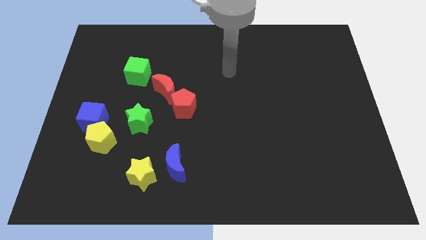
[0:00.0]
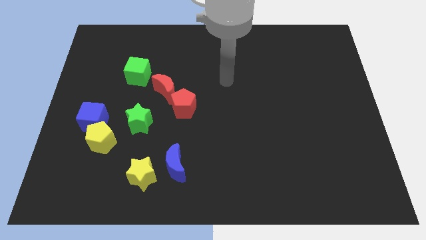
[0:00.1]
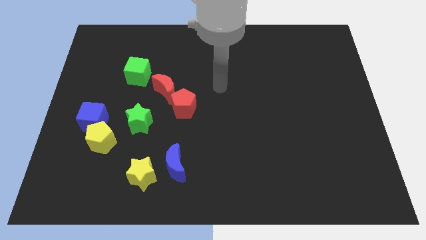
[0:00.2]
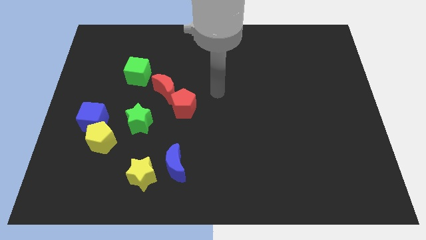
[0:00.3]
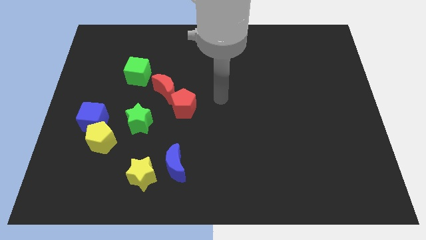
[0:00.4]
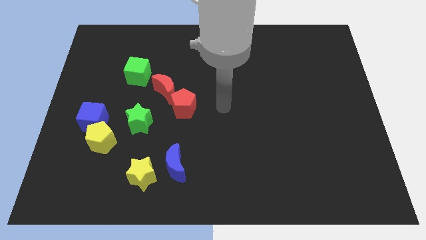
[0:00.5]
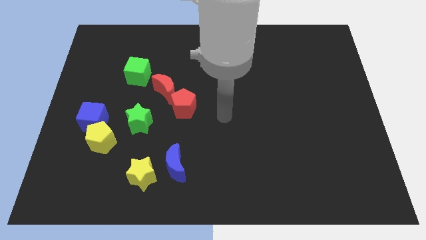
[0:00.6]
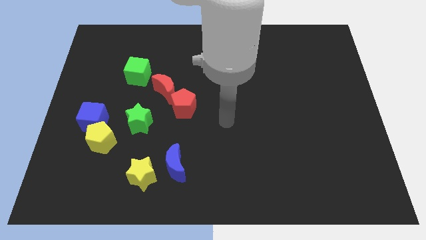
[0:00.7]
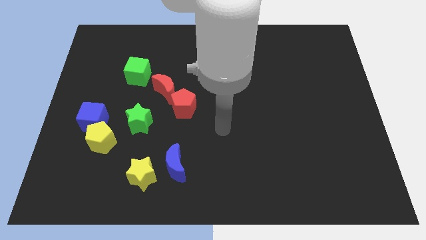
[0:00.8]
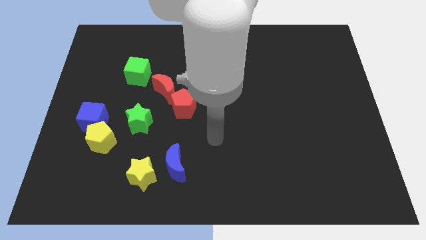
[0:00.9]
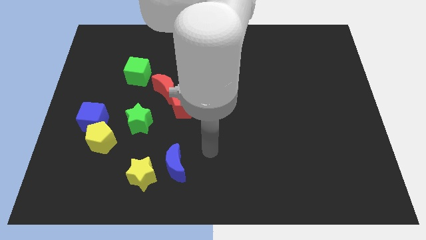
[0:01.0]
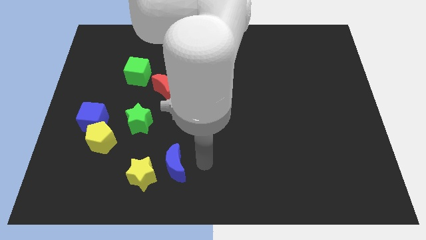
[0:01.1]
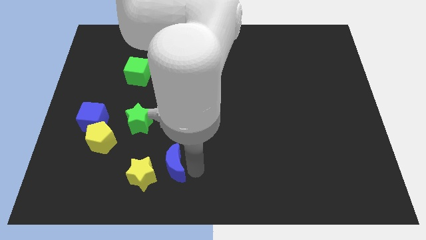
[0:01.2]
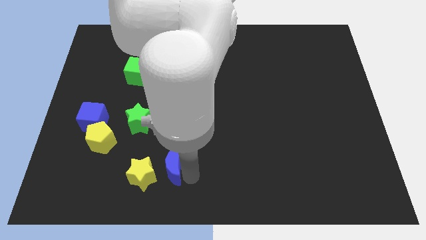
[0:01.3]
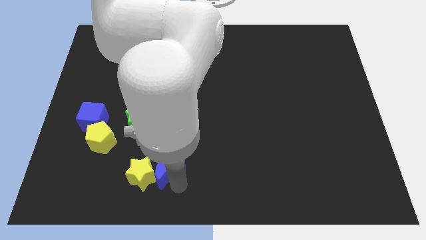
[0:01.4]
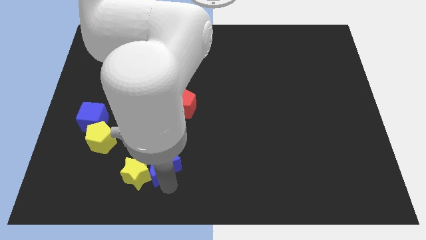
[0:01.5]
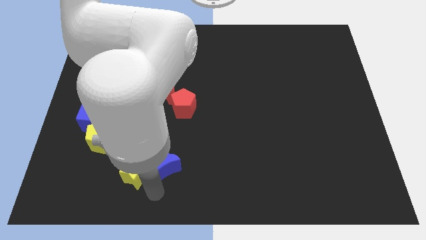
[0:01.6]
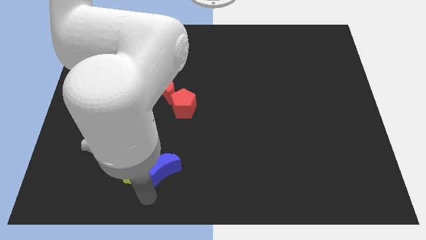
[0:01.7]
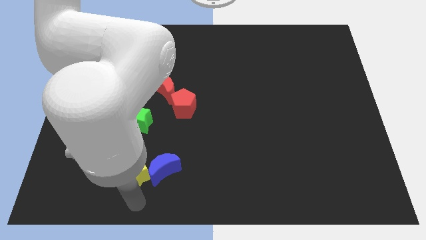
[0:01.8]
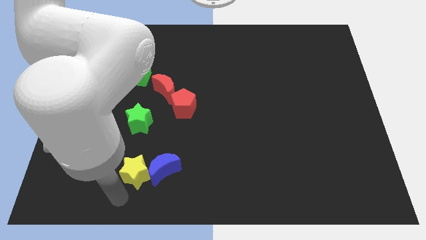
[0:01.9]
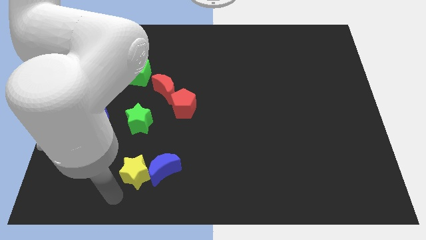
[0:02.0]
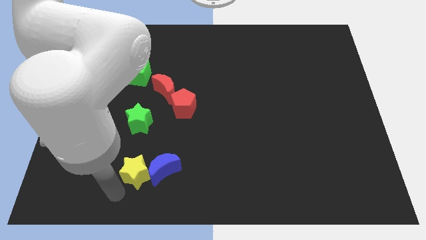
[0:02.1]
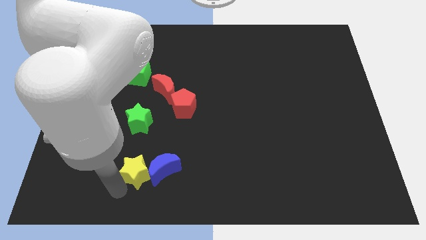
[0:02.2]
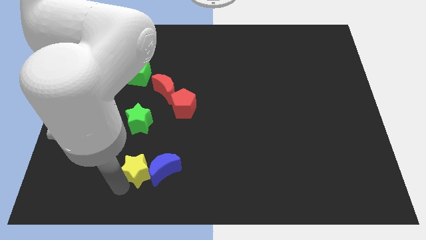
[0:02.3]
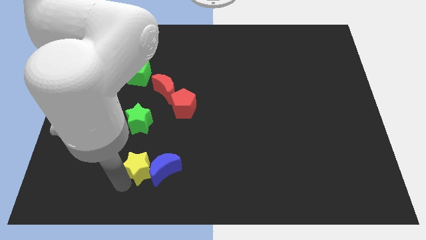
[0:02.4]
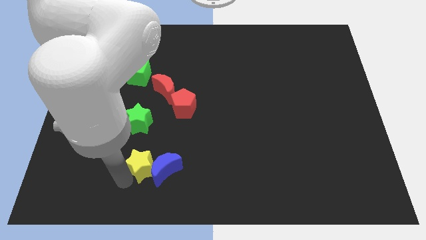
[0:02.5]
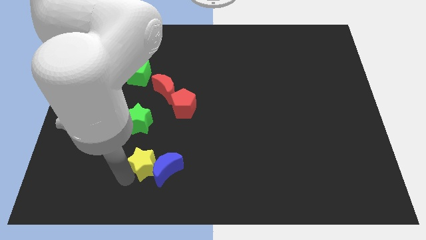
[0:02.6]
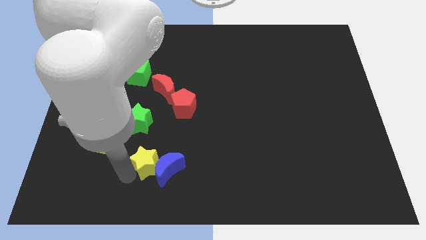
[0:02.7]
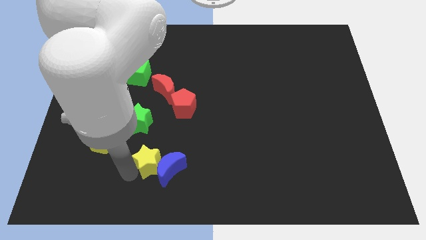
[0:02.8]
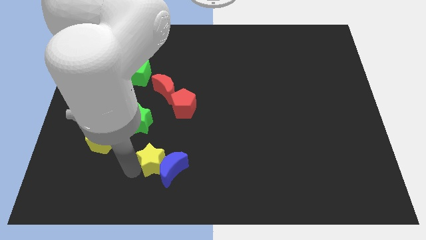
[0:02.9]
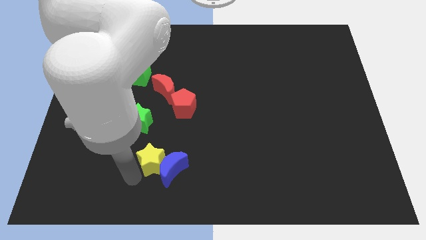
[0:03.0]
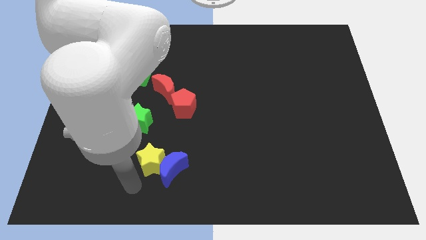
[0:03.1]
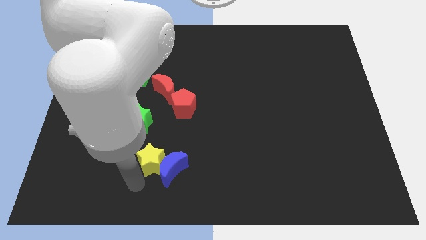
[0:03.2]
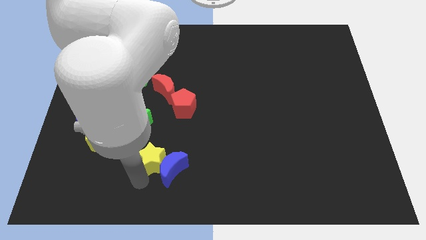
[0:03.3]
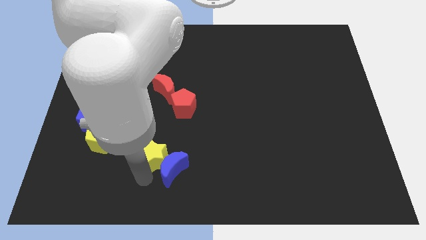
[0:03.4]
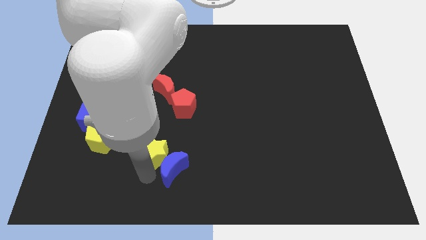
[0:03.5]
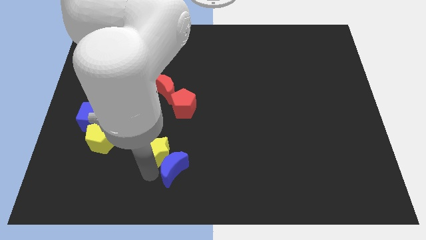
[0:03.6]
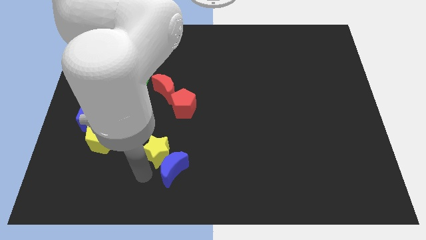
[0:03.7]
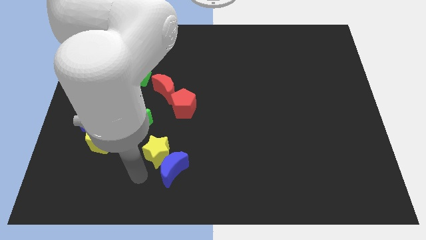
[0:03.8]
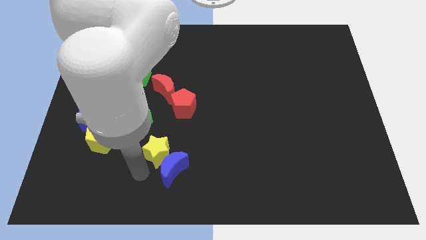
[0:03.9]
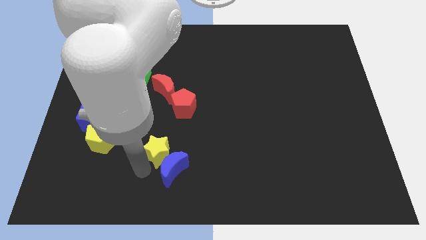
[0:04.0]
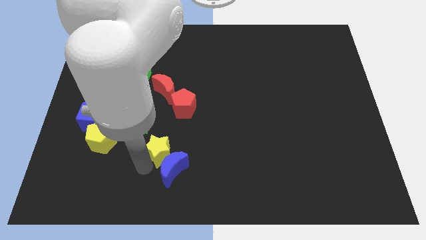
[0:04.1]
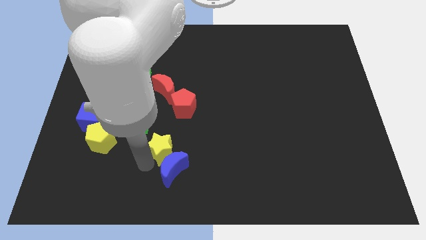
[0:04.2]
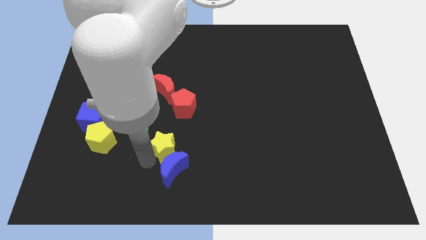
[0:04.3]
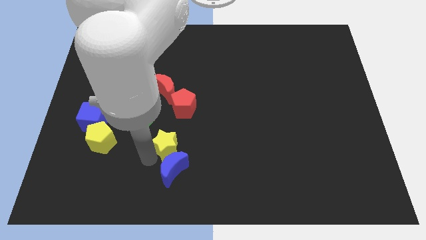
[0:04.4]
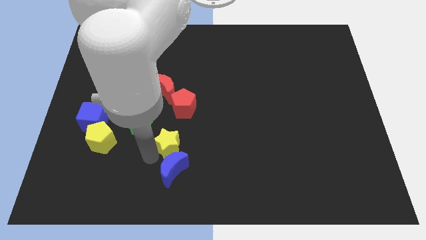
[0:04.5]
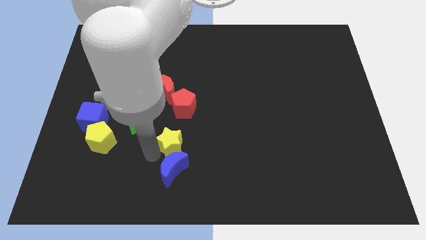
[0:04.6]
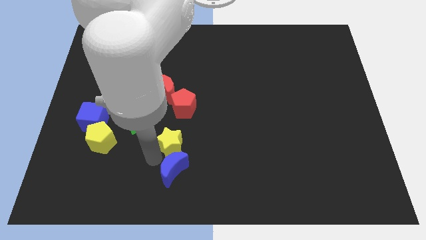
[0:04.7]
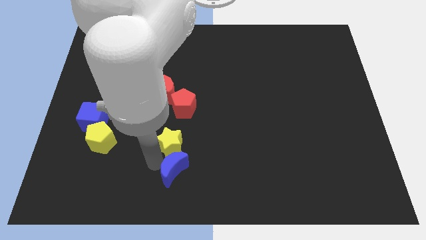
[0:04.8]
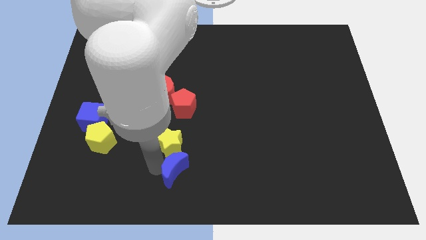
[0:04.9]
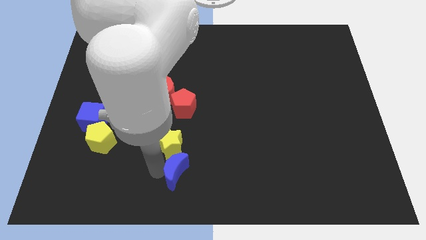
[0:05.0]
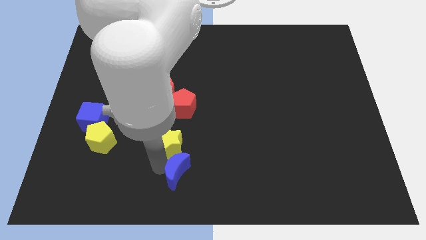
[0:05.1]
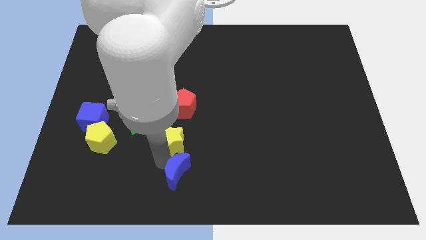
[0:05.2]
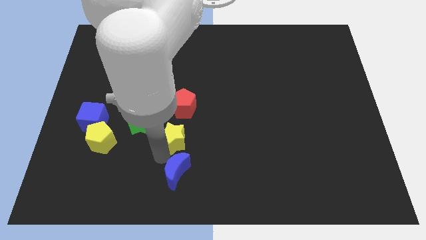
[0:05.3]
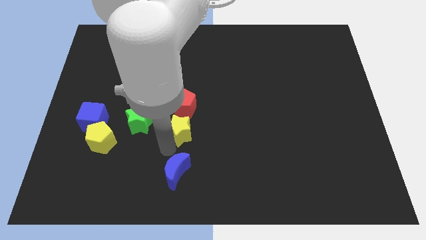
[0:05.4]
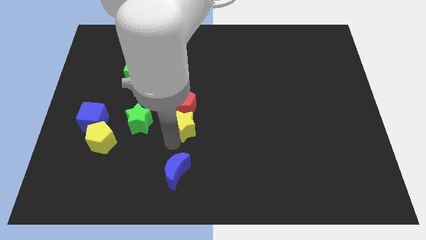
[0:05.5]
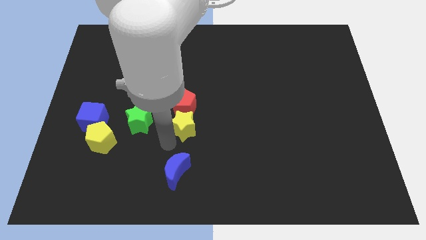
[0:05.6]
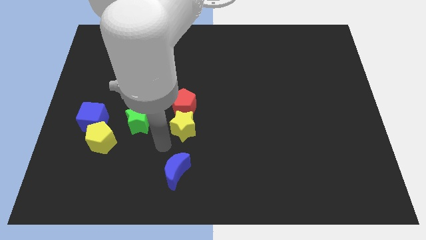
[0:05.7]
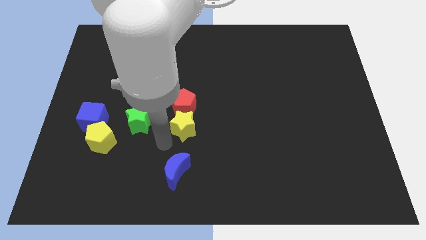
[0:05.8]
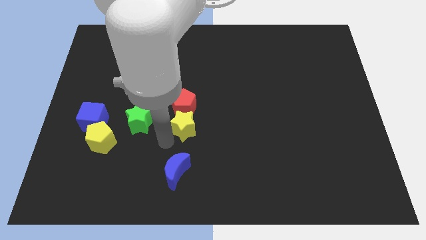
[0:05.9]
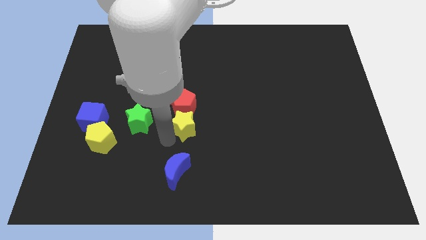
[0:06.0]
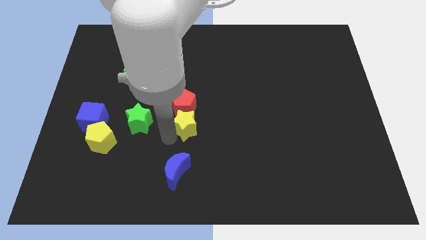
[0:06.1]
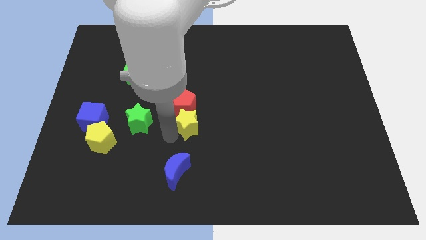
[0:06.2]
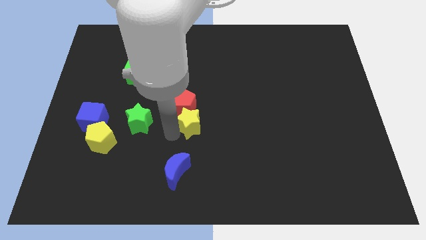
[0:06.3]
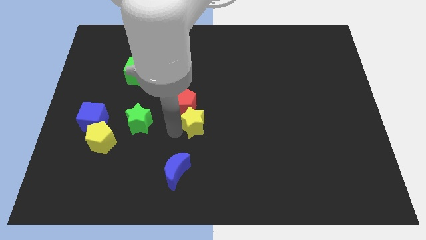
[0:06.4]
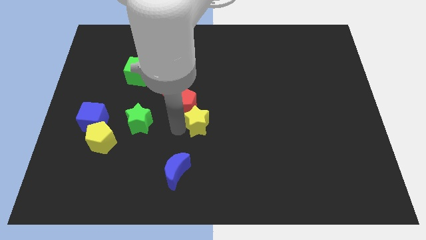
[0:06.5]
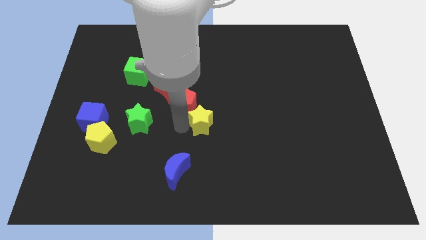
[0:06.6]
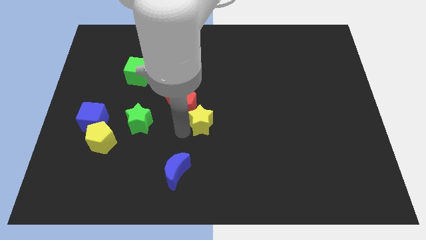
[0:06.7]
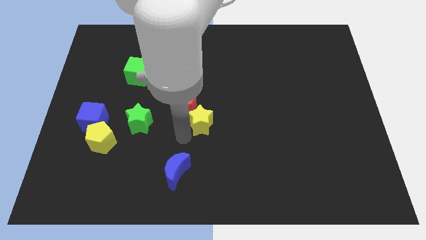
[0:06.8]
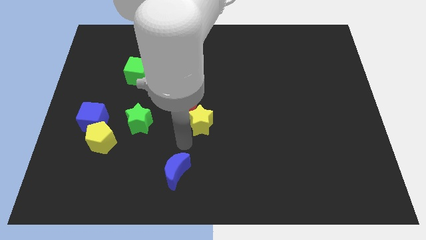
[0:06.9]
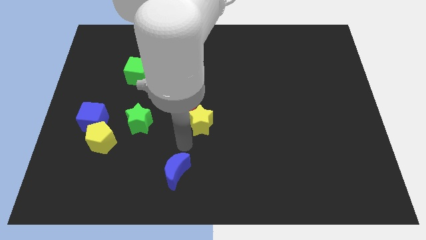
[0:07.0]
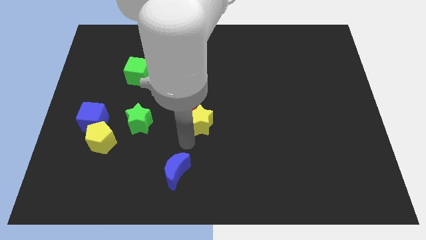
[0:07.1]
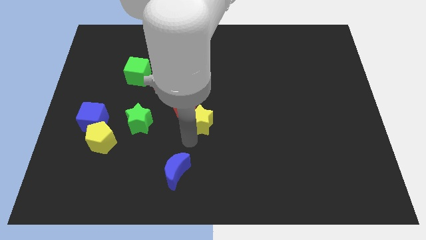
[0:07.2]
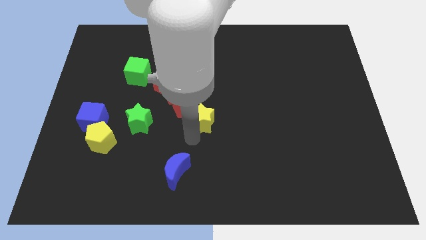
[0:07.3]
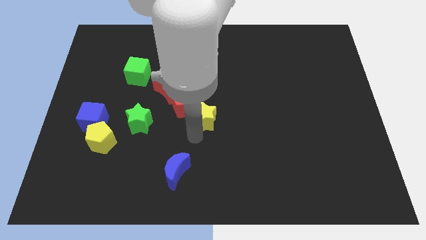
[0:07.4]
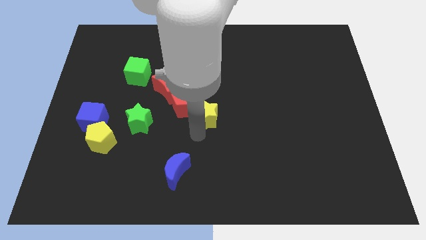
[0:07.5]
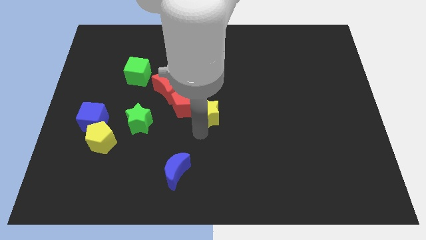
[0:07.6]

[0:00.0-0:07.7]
move the yellow star diagonally up and to the right

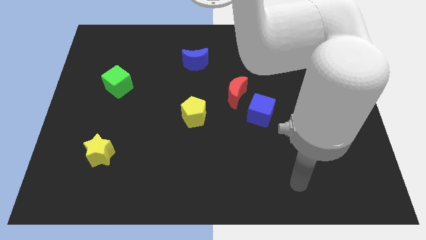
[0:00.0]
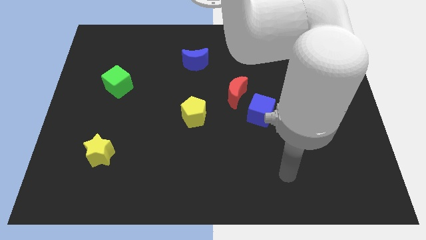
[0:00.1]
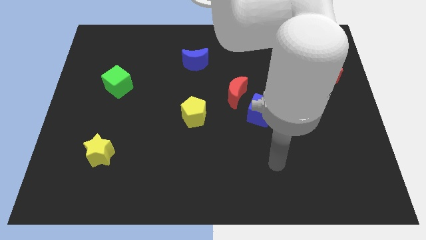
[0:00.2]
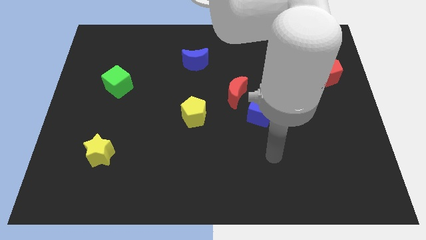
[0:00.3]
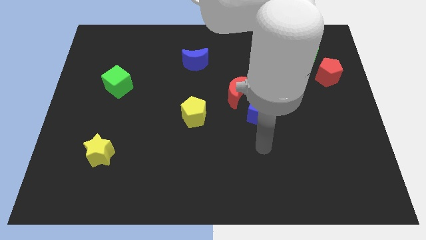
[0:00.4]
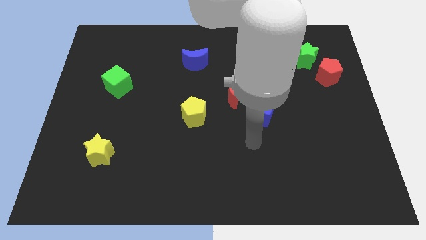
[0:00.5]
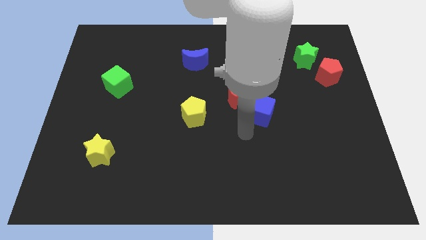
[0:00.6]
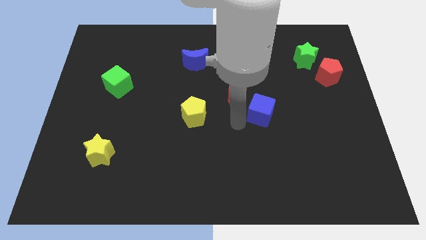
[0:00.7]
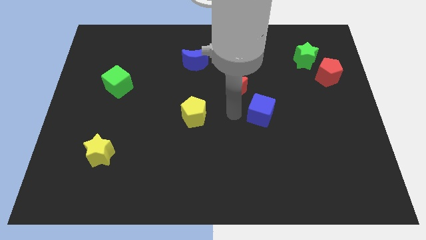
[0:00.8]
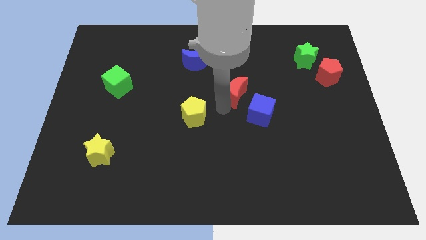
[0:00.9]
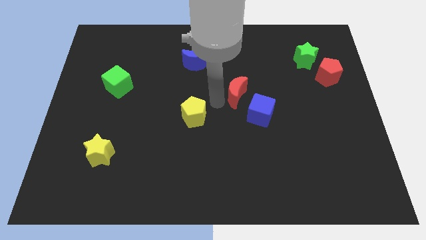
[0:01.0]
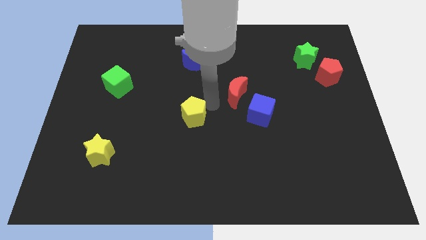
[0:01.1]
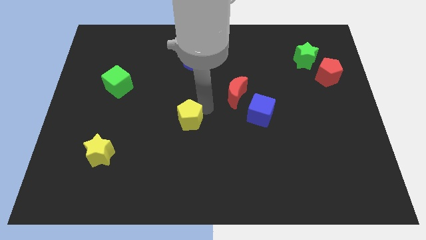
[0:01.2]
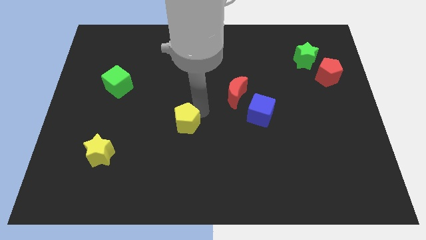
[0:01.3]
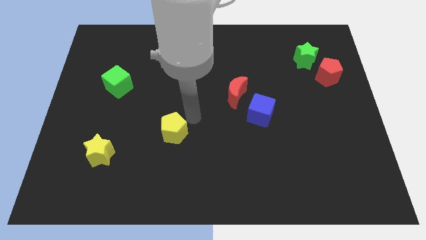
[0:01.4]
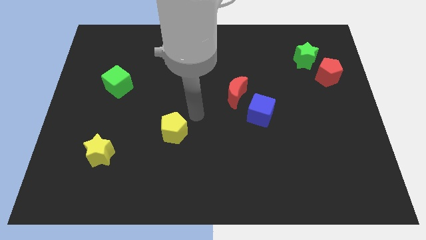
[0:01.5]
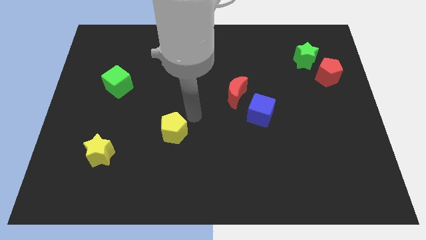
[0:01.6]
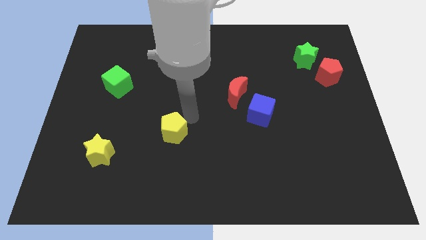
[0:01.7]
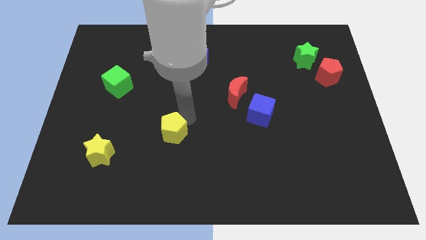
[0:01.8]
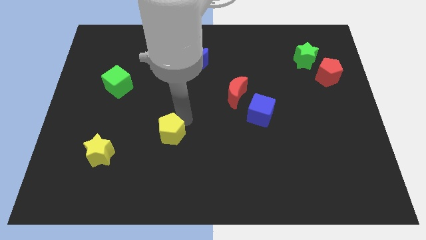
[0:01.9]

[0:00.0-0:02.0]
slightly slide the yellow pentagon diagonally down and to the left
